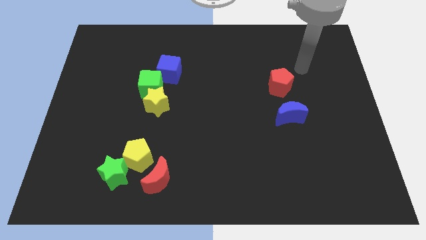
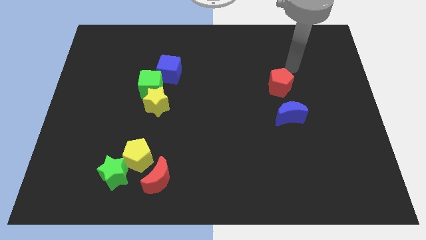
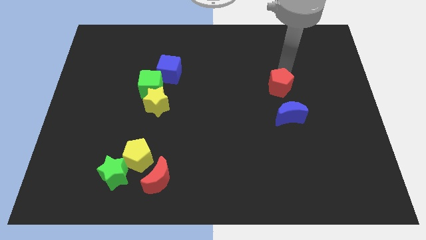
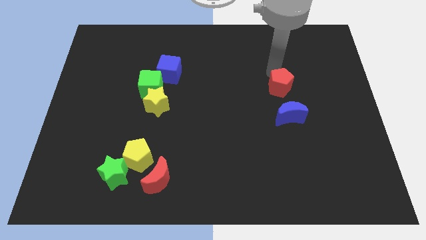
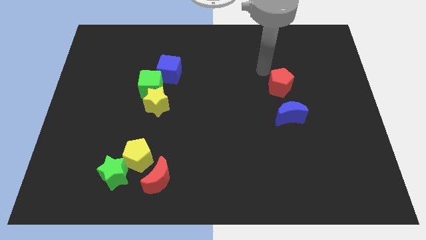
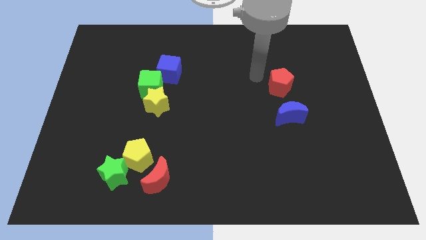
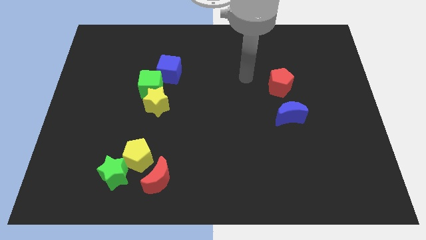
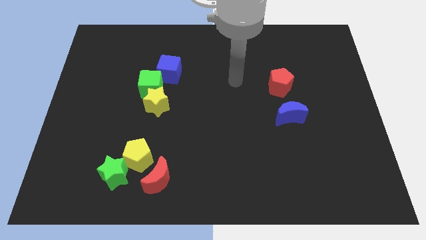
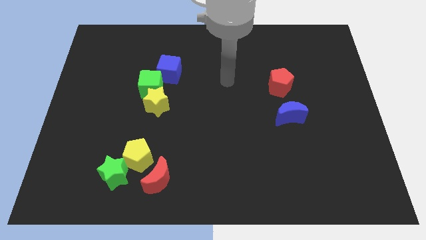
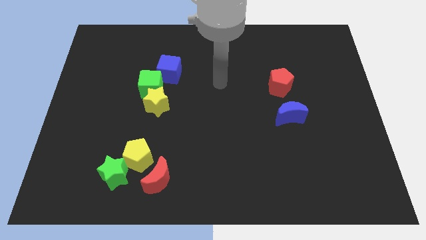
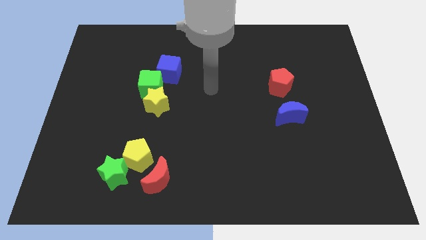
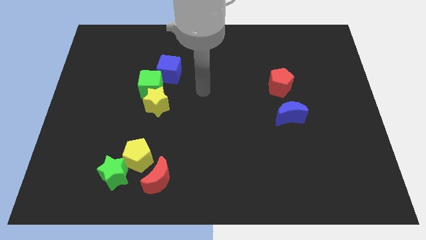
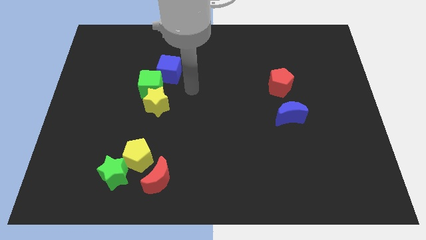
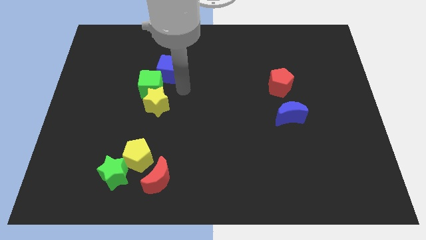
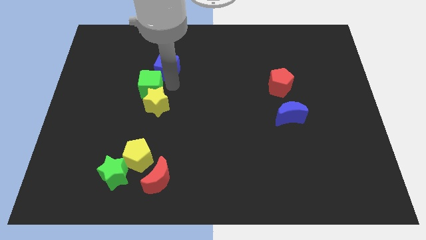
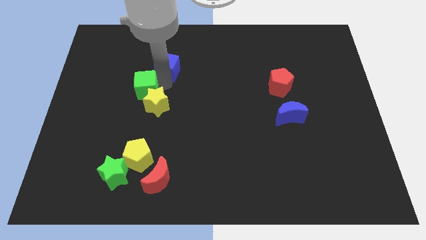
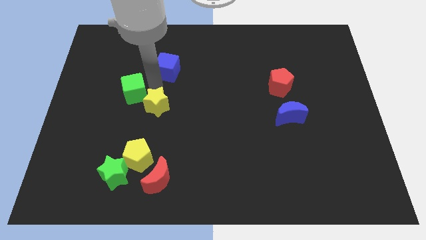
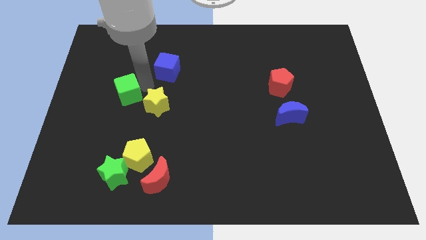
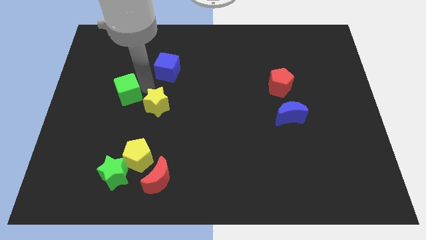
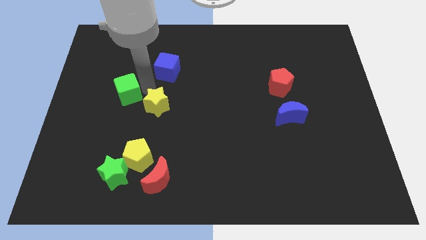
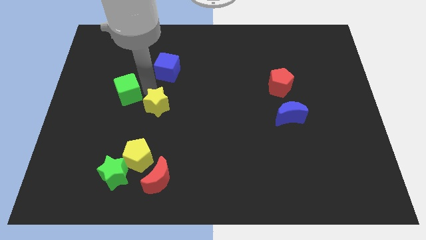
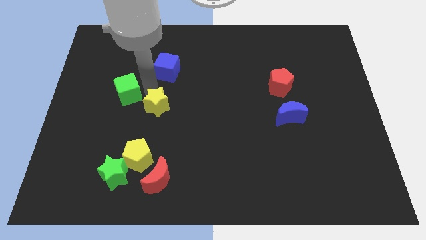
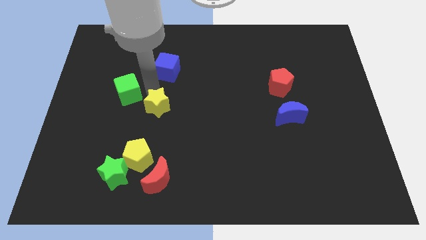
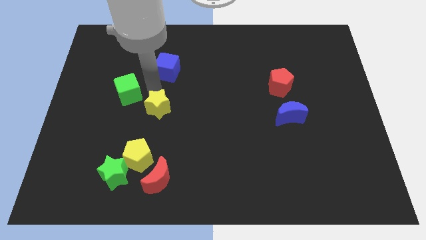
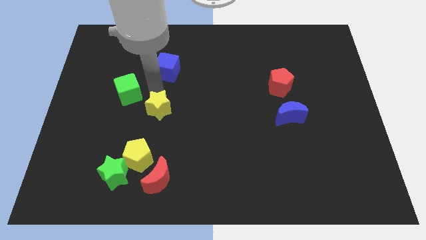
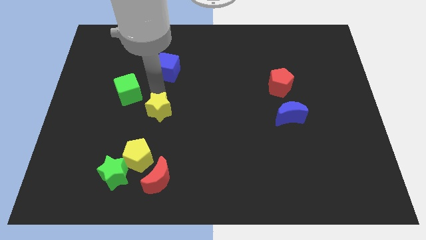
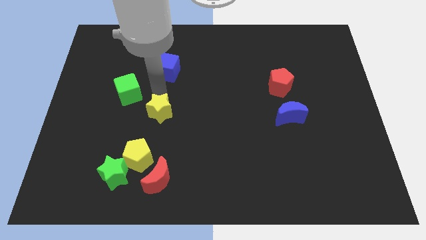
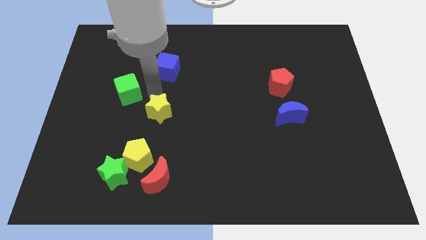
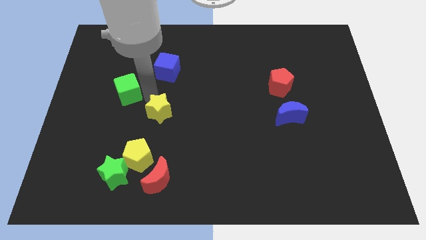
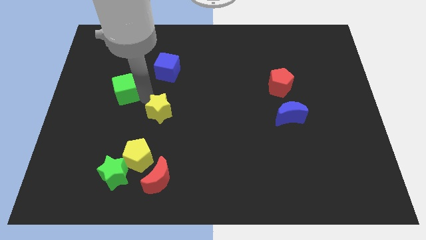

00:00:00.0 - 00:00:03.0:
move the yellow star away from the green cube

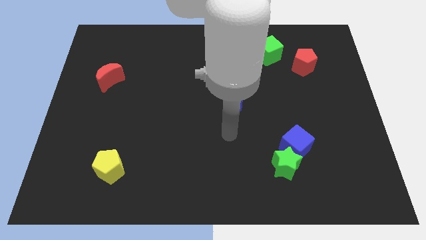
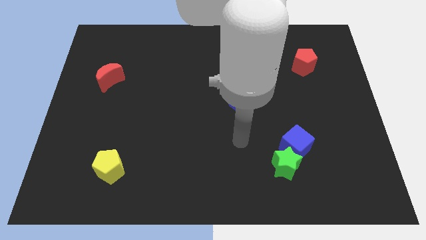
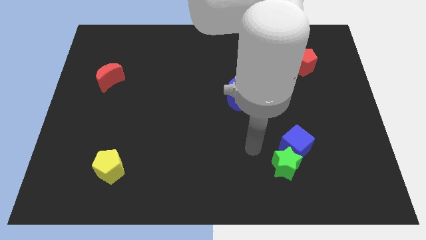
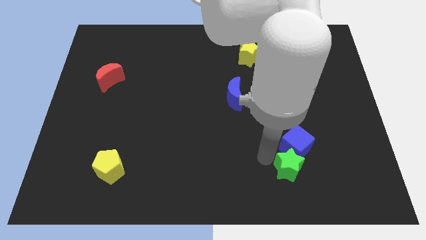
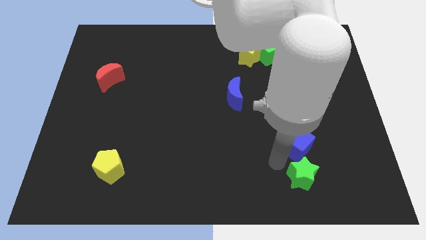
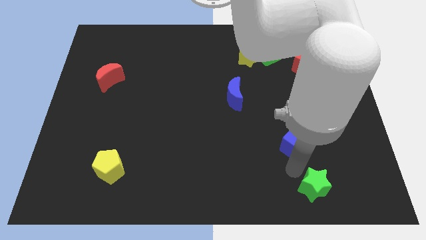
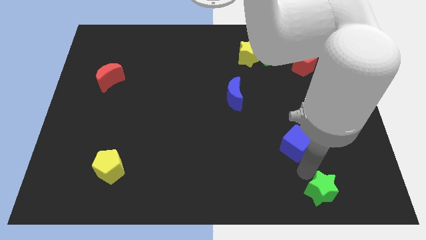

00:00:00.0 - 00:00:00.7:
separate the blue cube from the green star

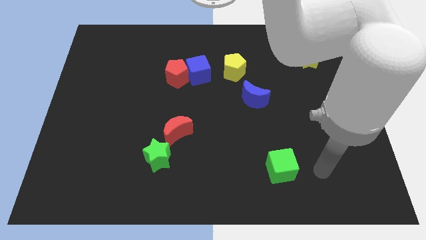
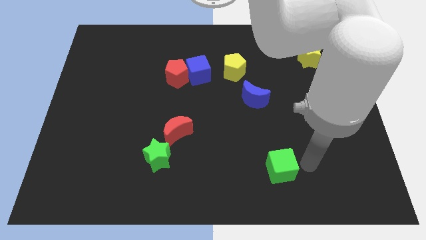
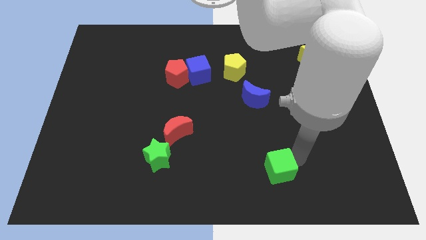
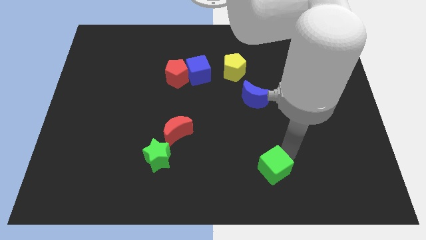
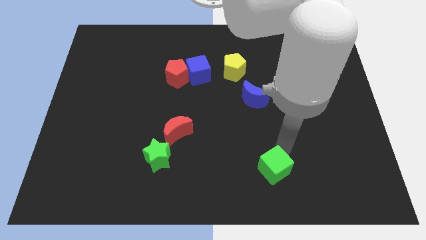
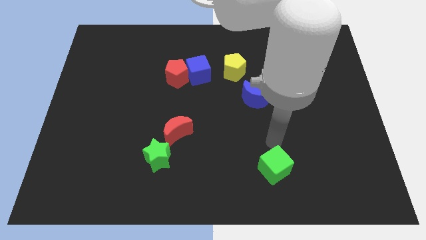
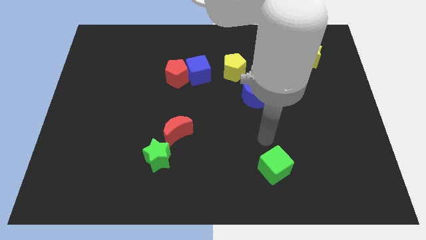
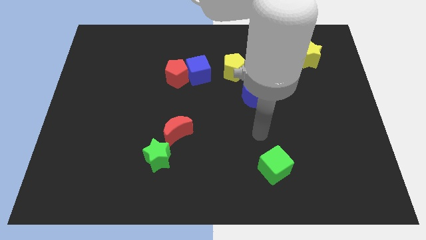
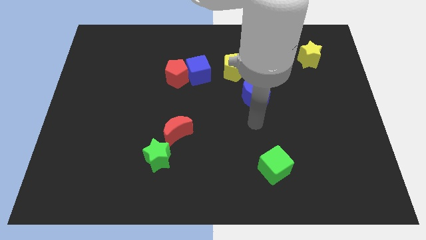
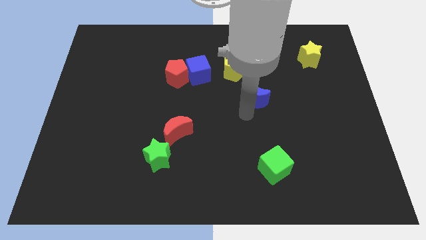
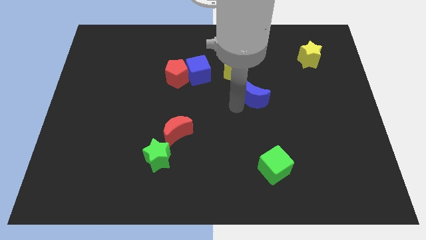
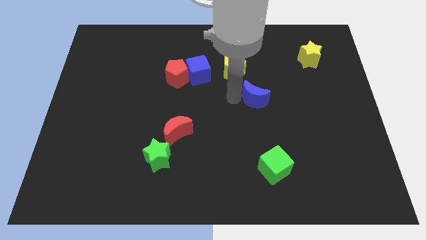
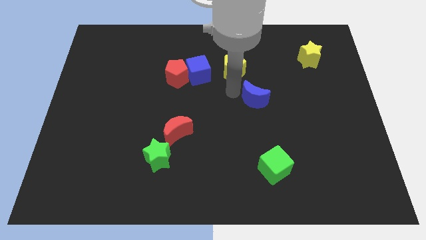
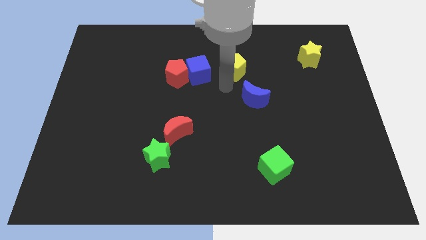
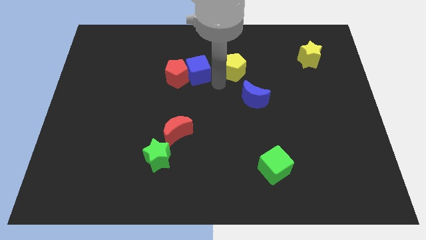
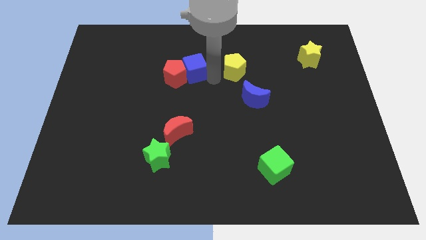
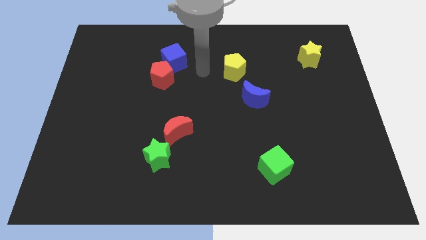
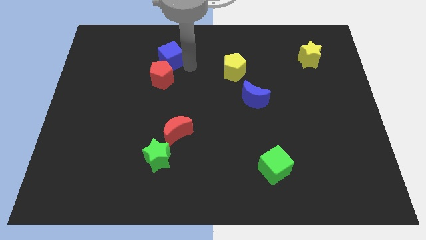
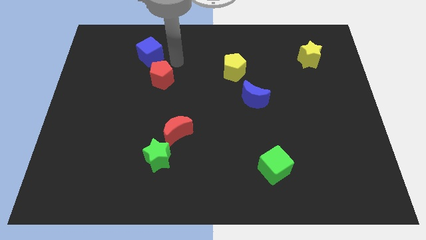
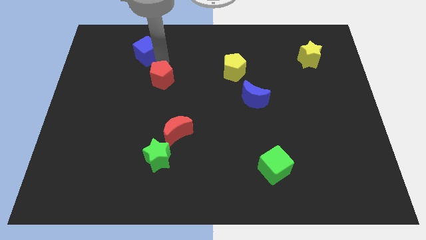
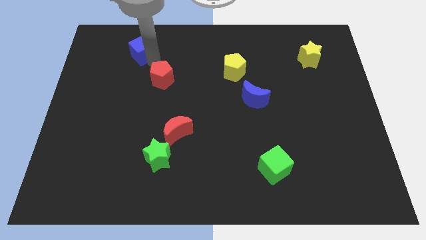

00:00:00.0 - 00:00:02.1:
separate the red pentagon from the blue cube

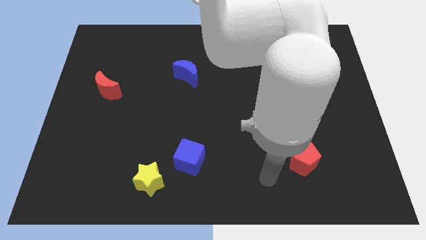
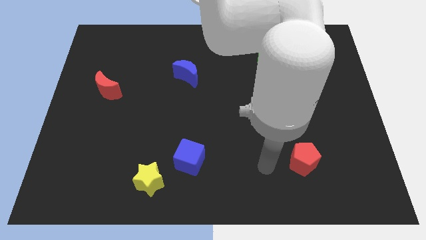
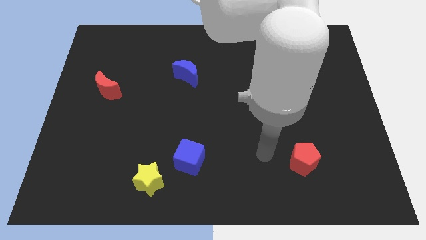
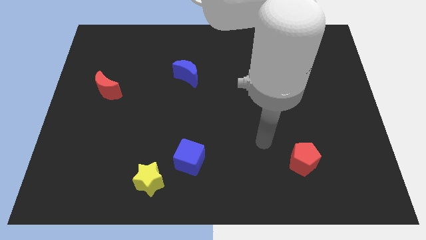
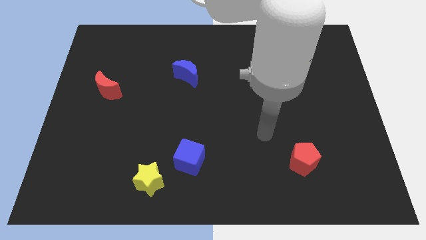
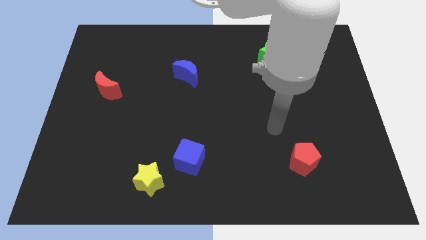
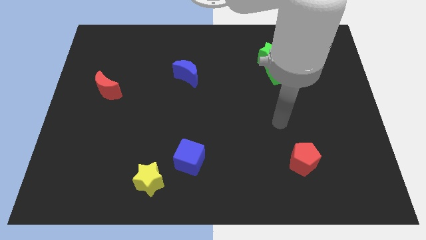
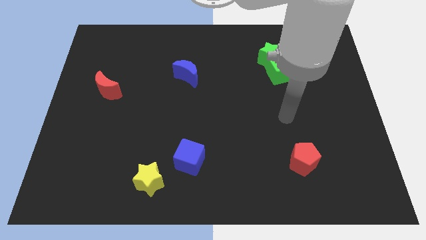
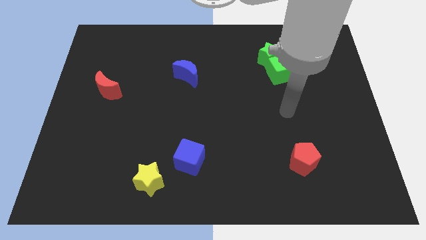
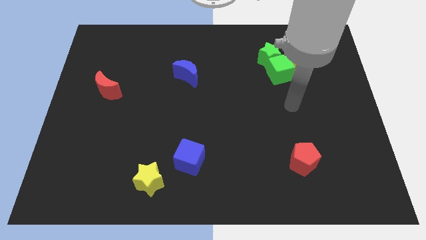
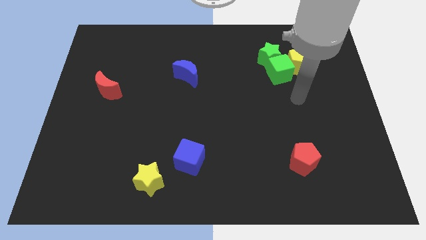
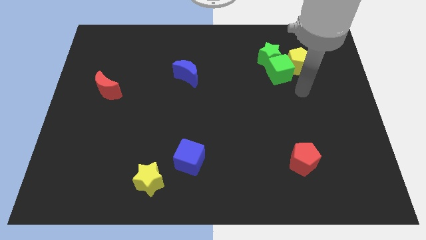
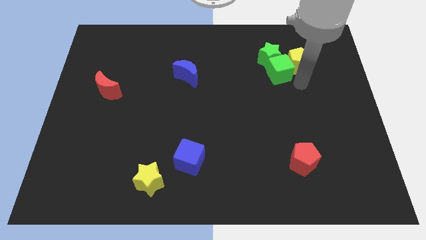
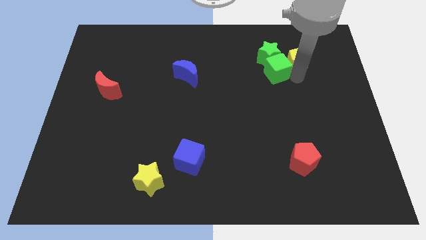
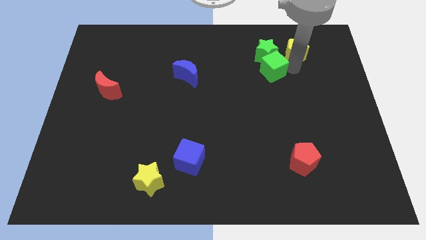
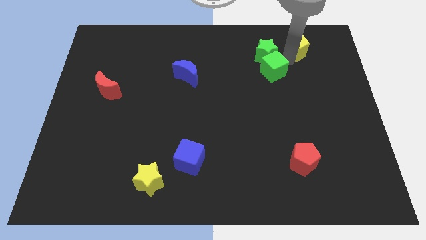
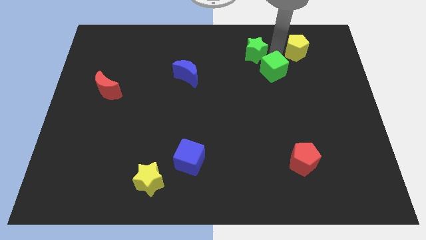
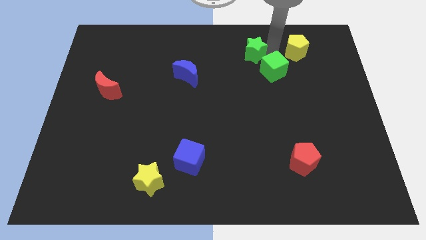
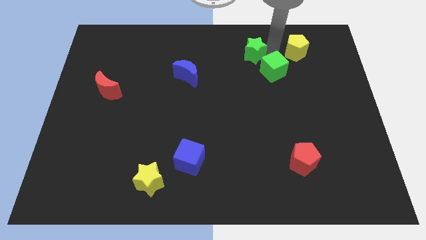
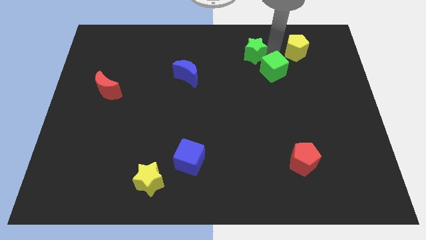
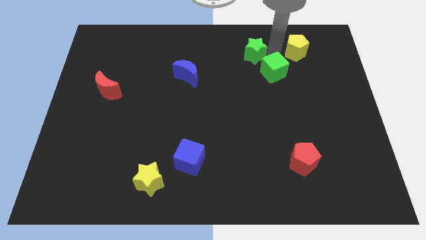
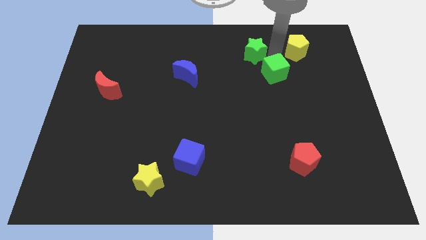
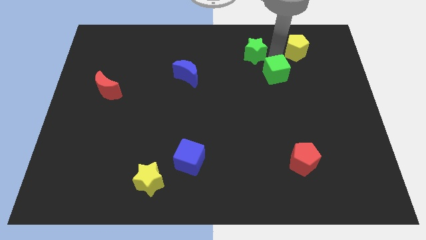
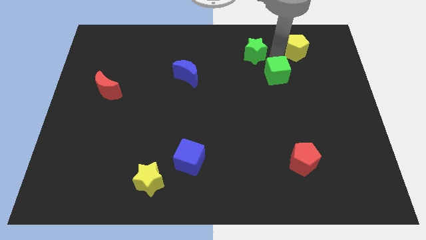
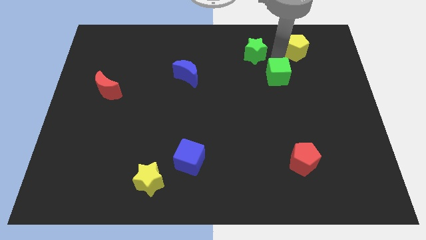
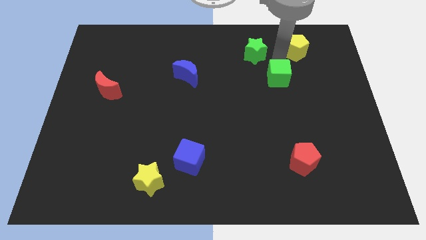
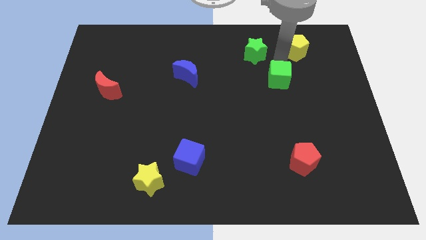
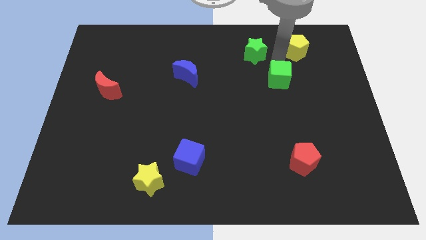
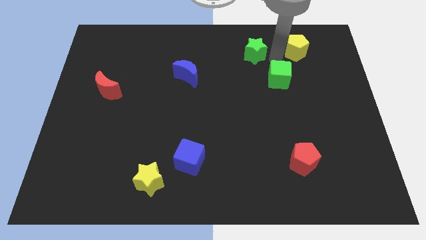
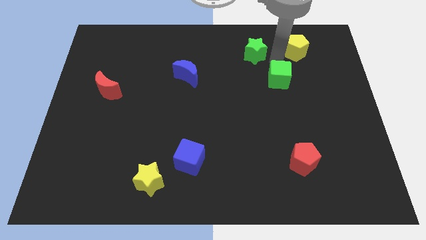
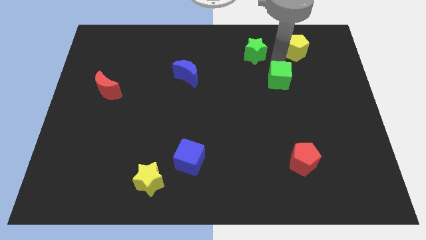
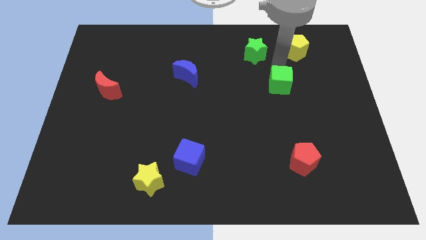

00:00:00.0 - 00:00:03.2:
separate the green cube from the green star and yellow pentagon

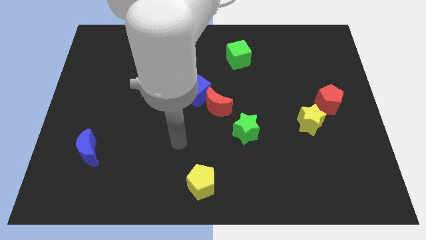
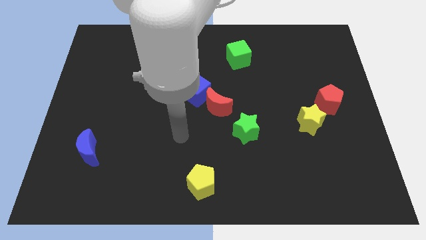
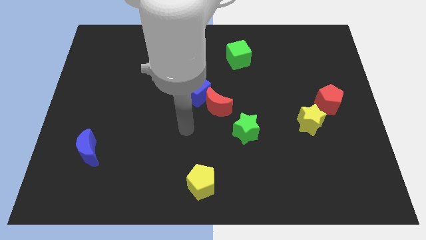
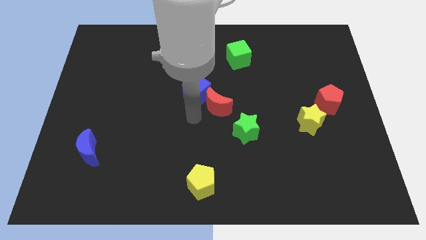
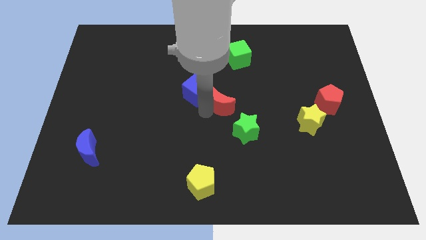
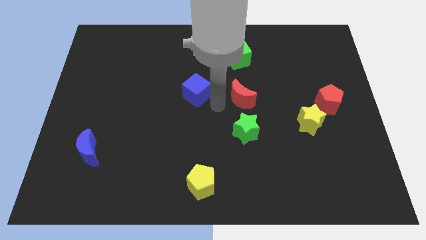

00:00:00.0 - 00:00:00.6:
pull the blue cube apart from the red moon
